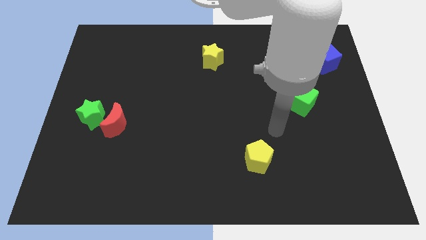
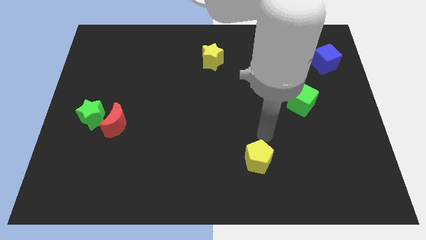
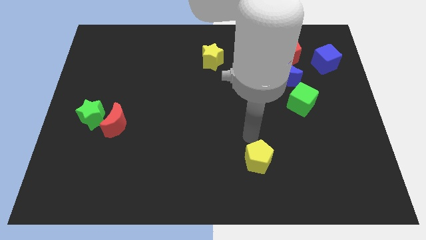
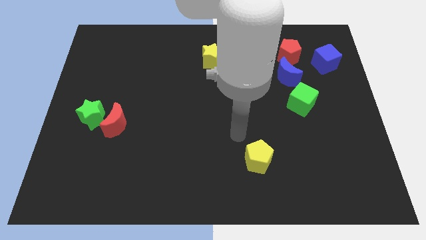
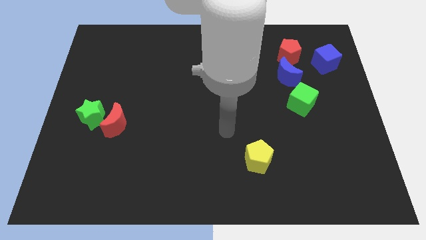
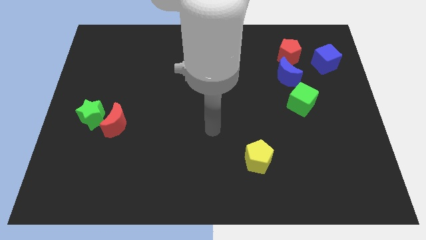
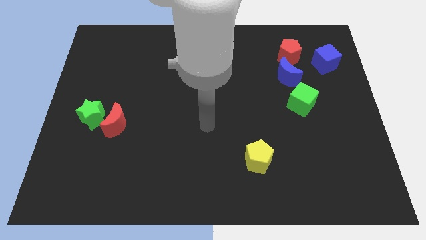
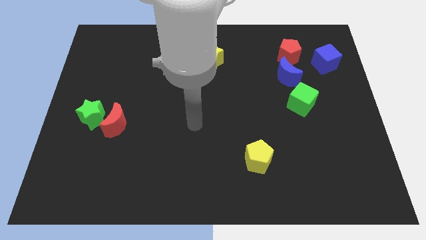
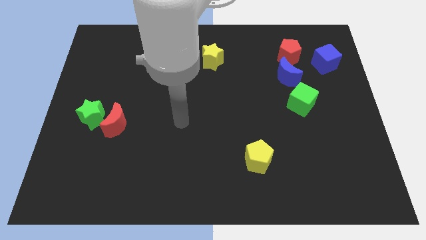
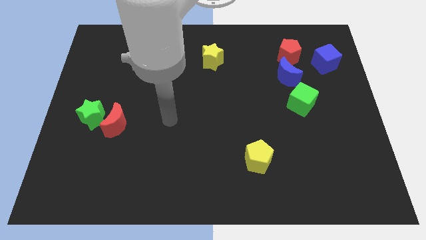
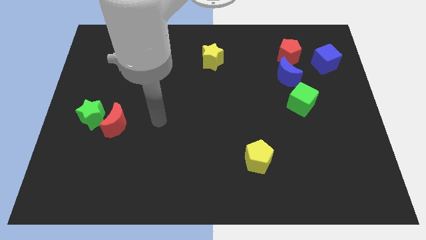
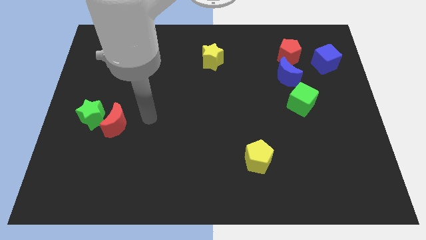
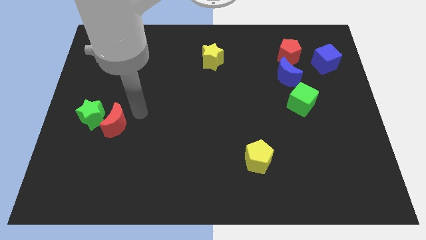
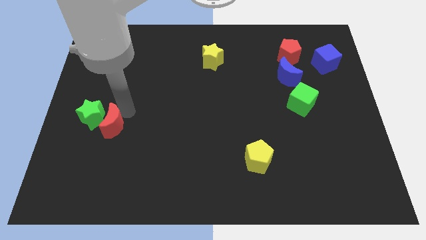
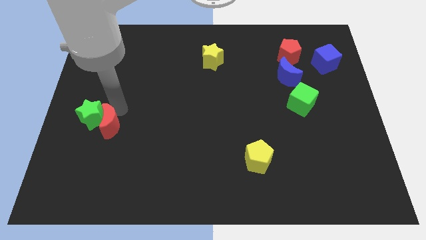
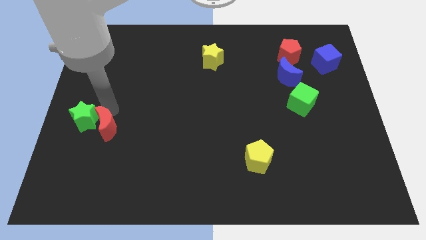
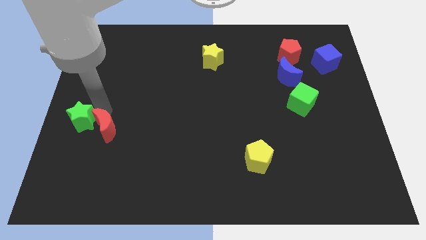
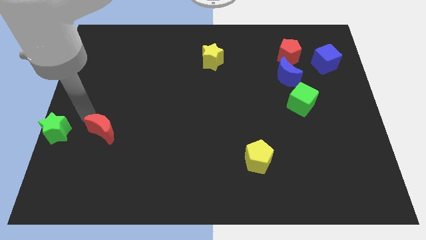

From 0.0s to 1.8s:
pull the red moon apart from the green star

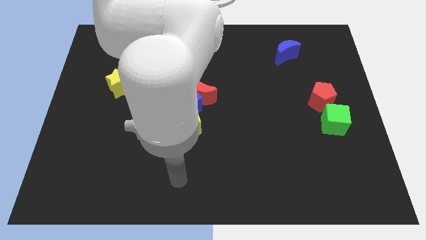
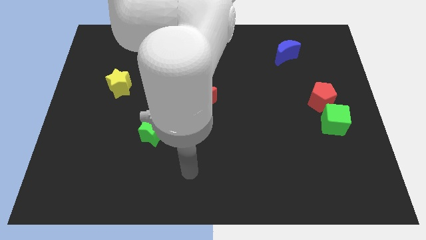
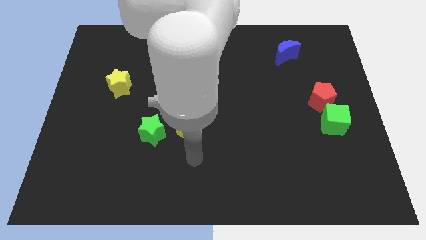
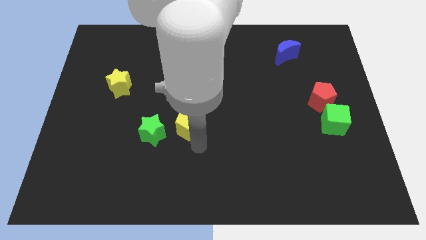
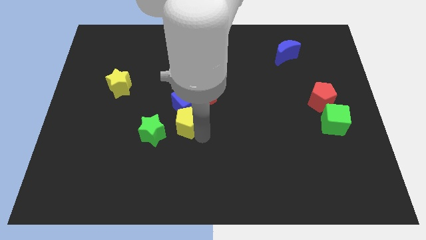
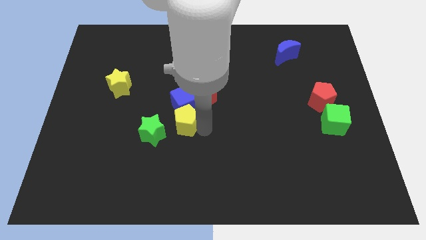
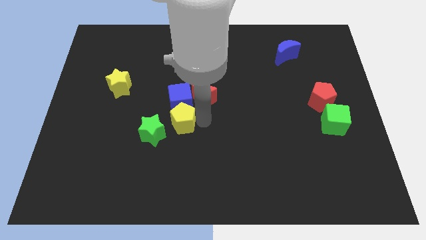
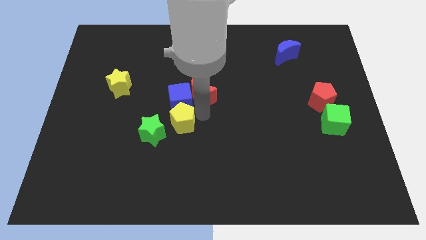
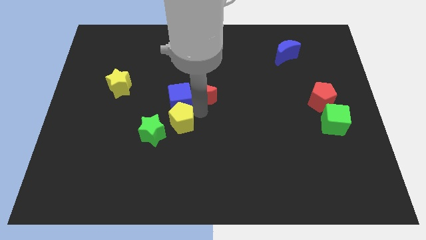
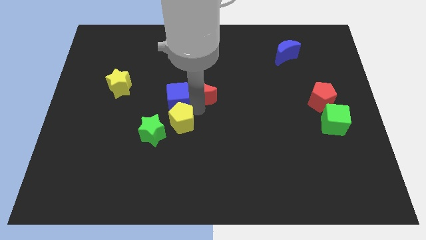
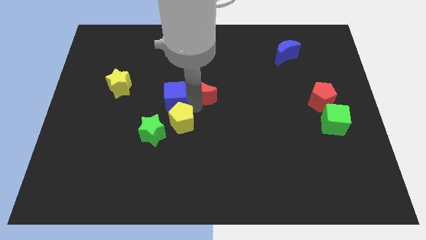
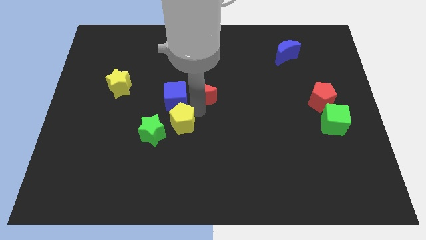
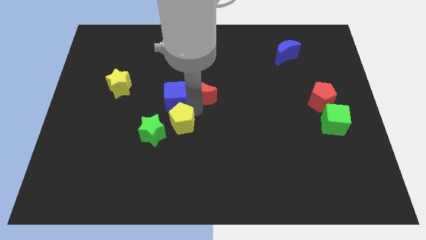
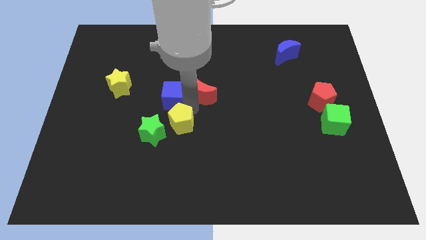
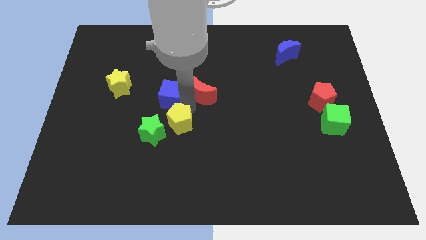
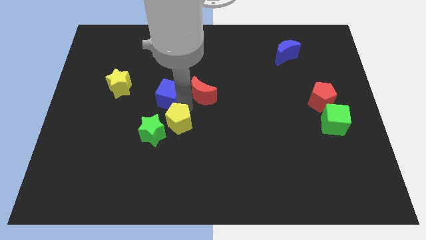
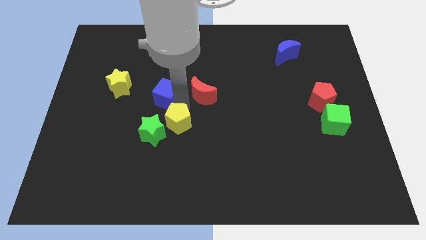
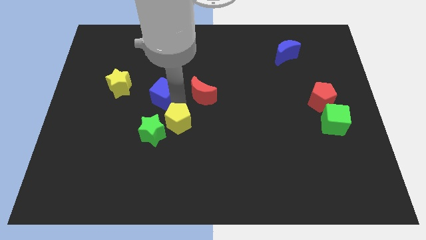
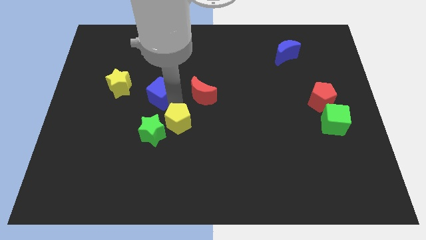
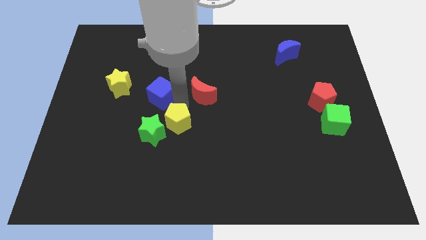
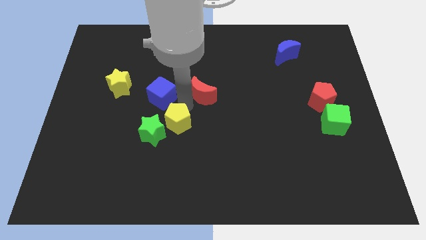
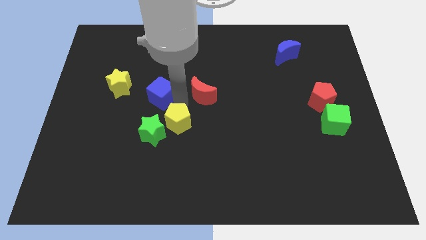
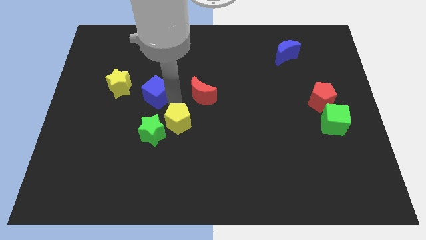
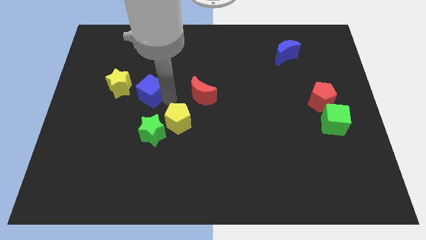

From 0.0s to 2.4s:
pull the blue cube apart from the red moon and yellow pentagon

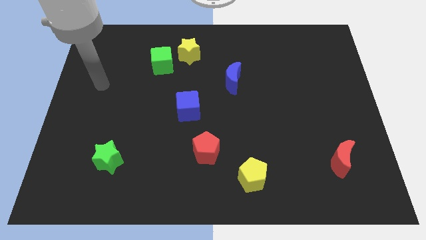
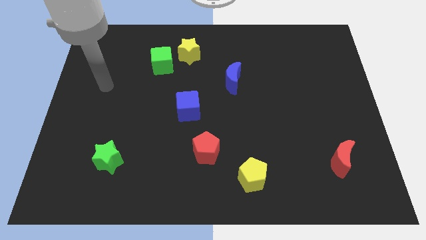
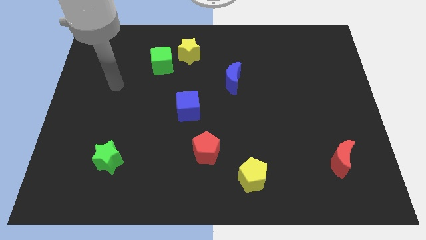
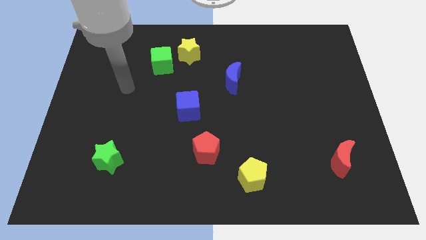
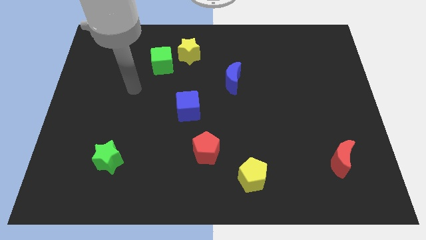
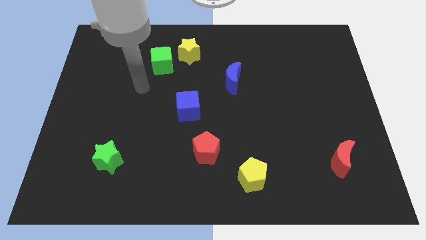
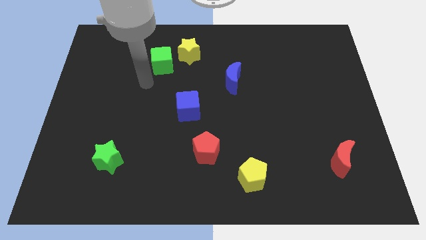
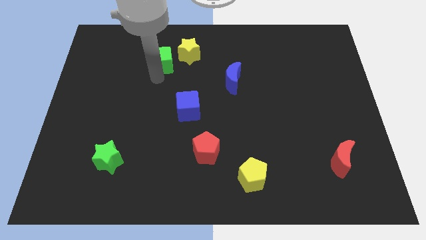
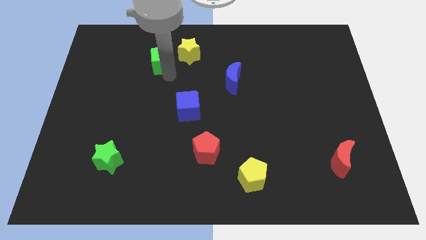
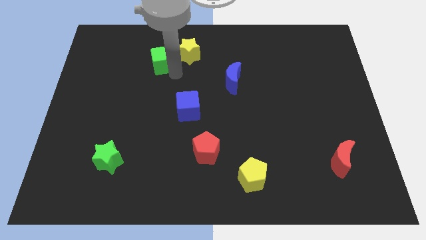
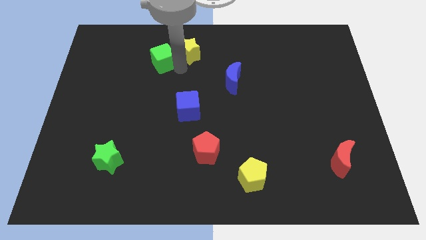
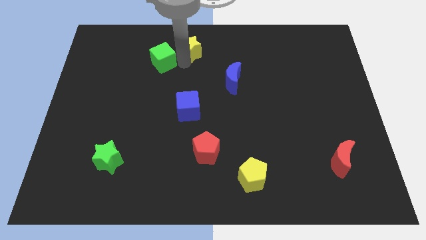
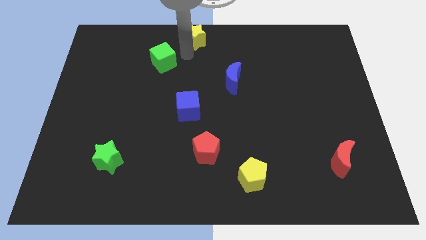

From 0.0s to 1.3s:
pull the green cube apart from the yellow star

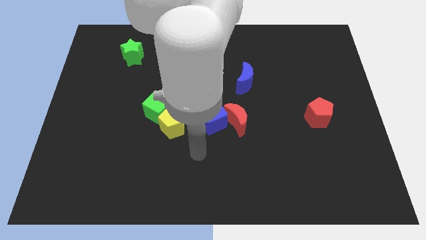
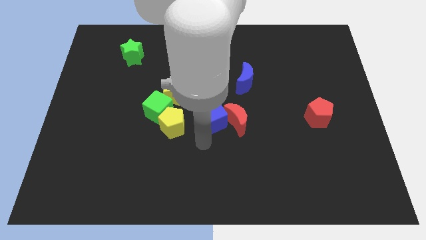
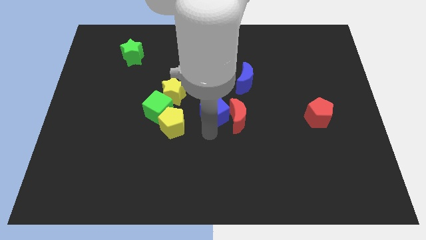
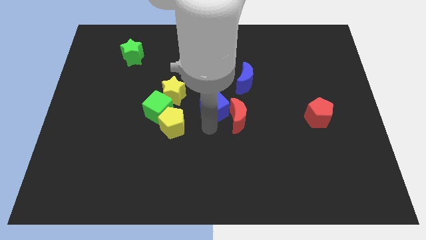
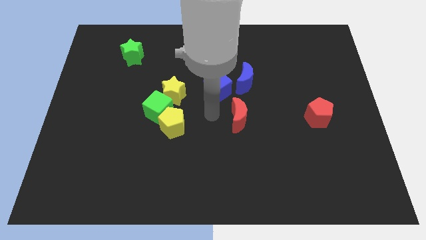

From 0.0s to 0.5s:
separate the red moon from the blue cube

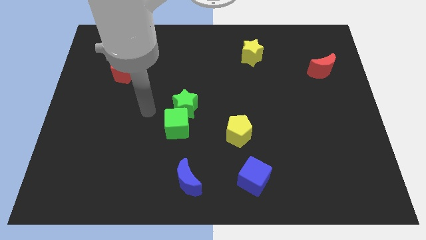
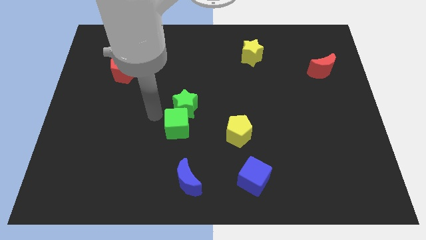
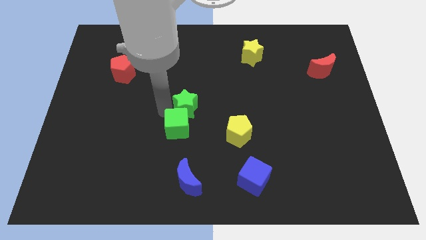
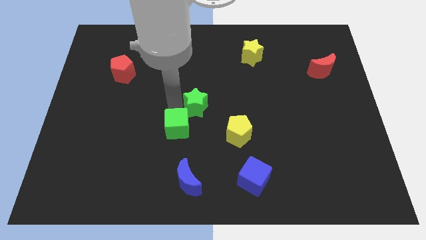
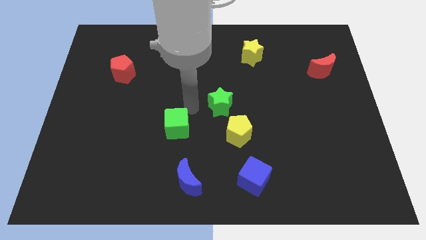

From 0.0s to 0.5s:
separate the green cube from the green star

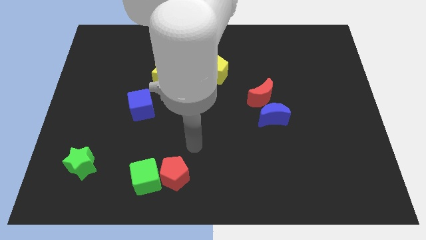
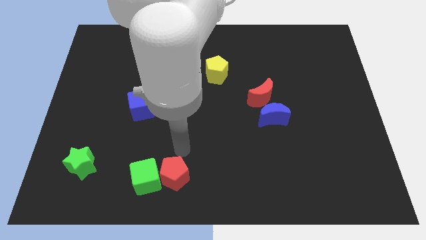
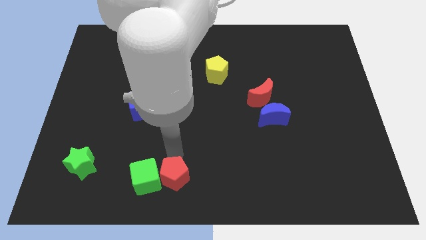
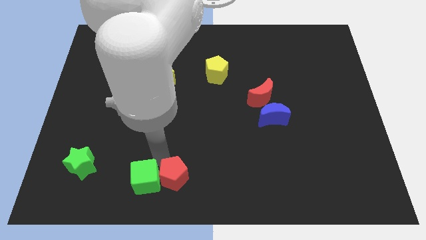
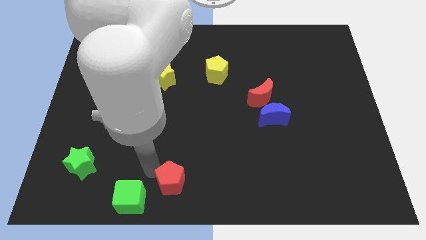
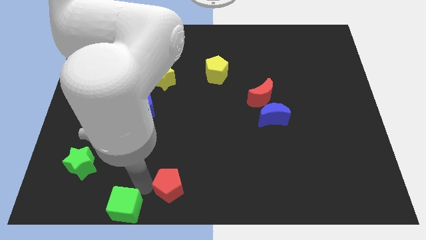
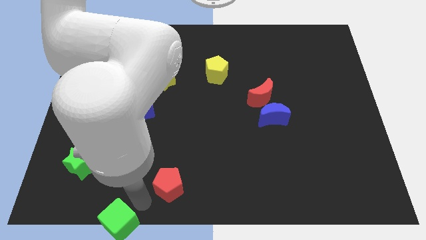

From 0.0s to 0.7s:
pull the red pentagon apart from the green cube

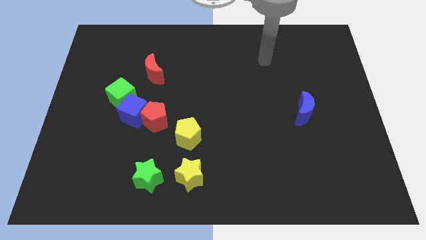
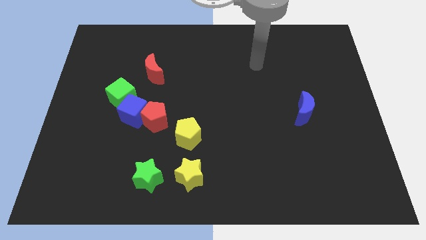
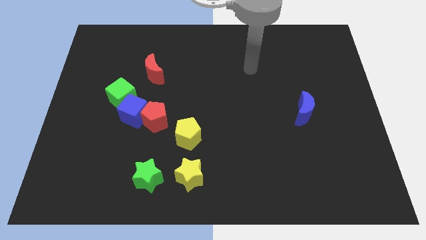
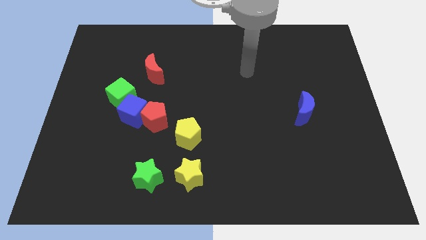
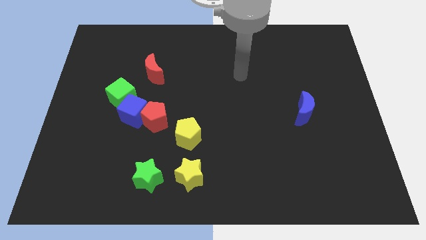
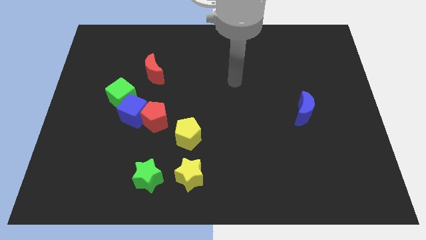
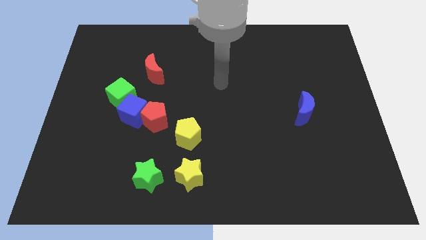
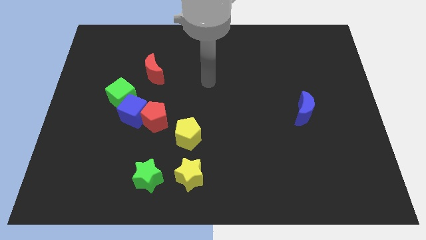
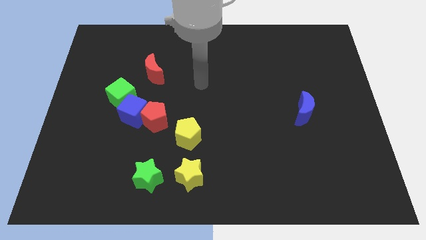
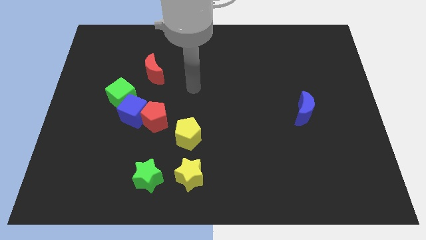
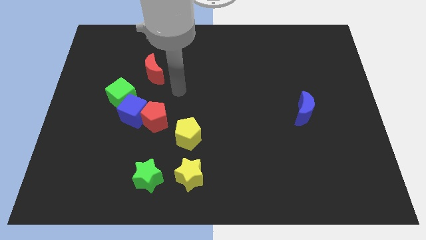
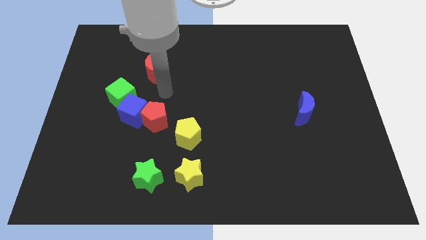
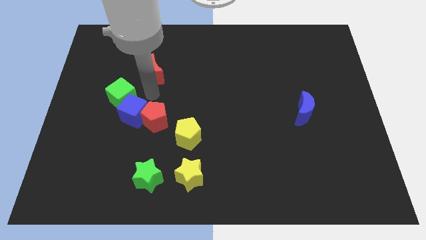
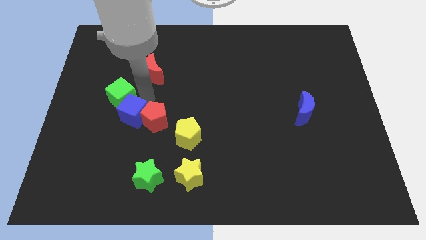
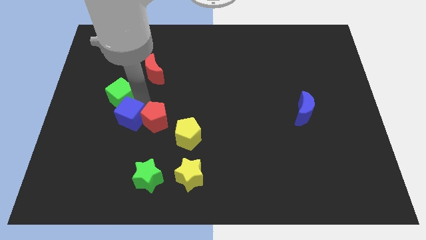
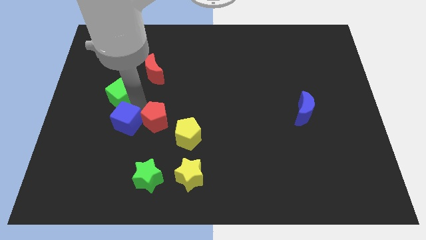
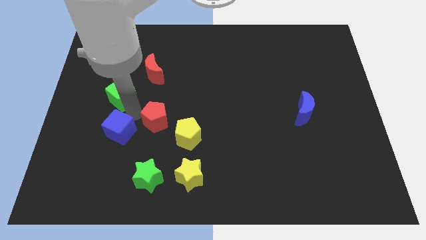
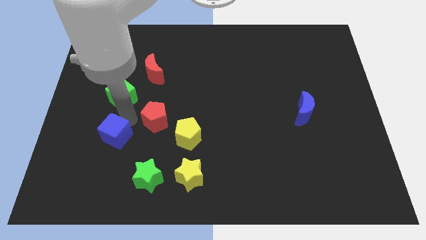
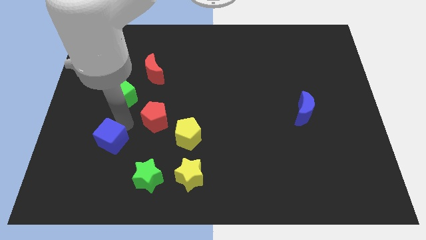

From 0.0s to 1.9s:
separate the blue cube from the red pentagon and green cube

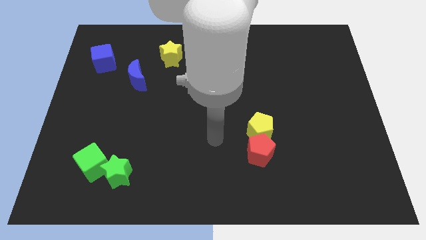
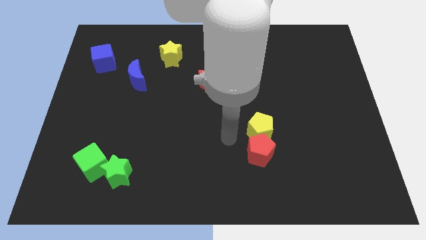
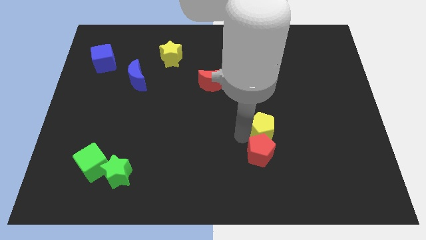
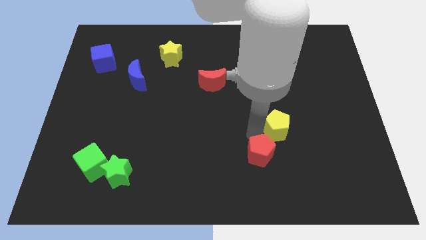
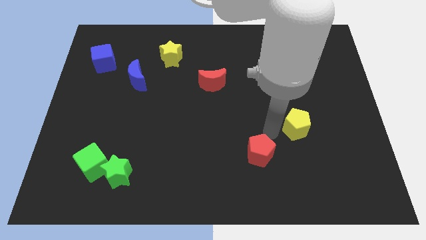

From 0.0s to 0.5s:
separate the red pentagon from the yellow pentagon
